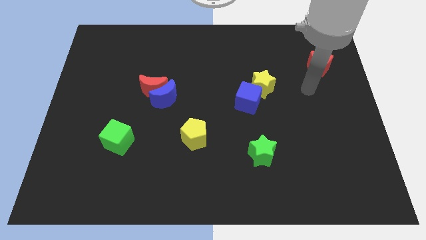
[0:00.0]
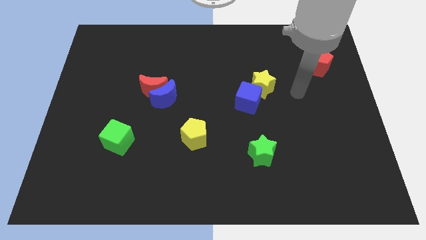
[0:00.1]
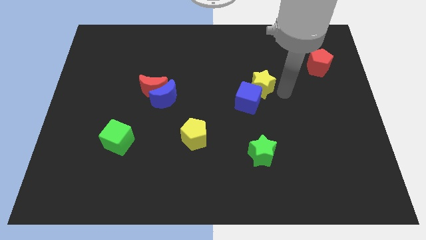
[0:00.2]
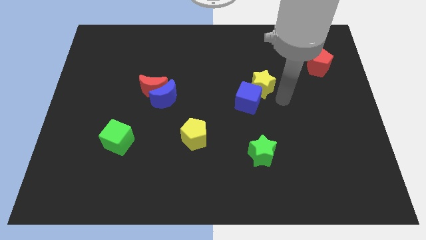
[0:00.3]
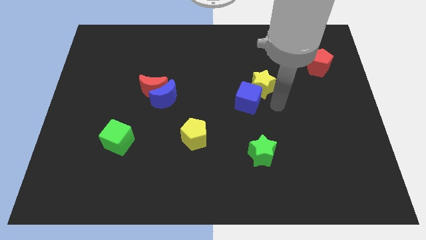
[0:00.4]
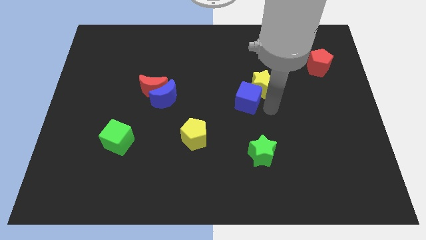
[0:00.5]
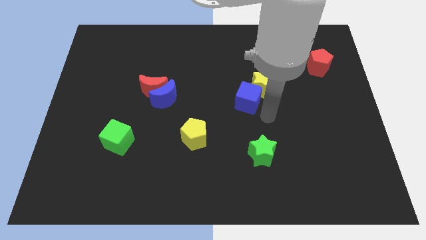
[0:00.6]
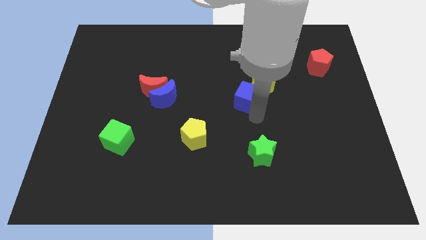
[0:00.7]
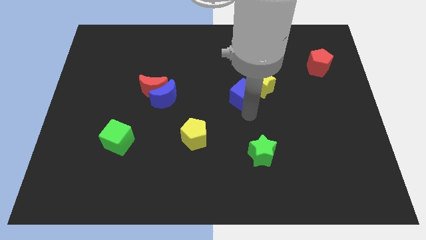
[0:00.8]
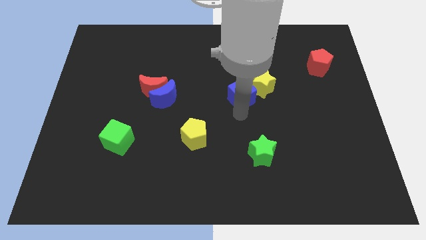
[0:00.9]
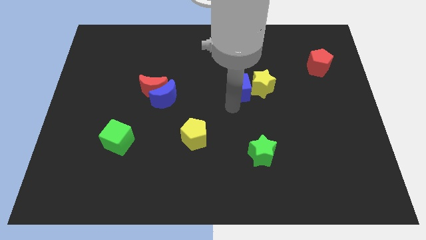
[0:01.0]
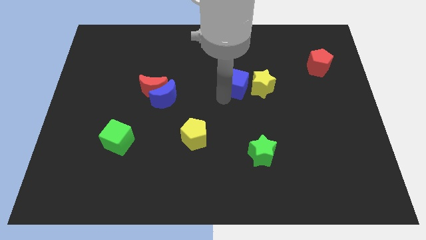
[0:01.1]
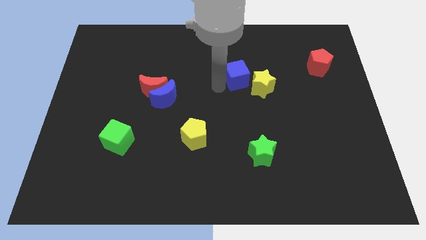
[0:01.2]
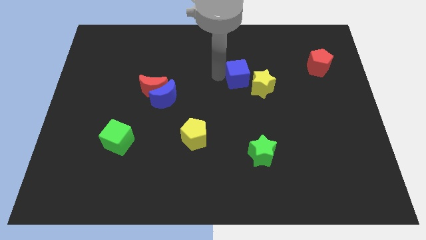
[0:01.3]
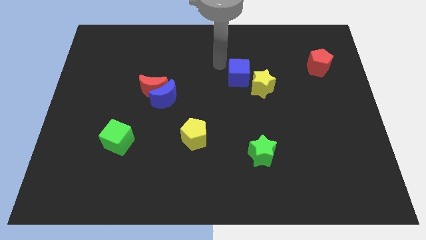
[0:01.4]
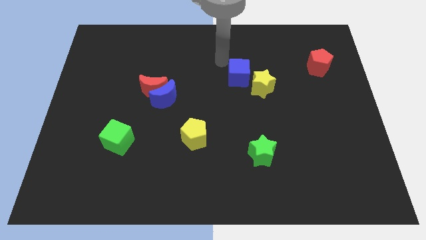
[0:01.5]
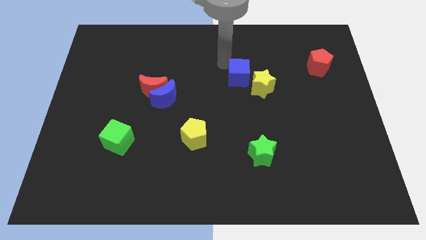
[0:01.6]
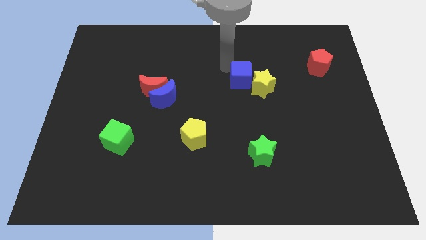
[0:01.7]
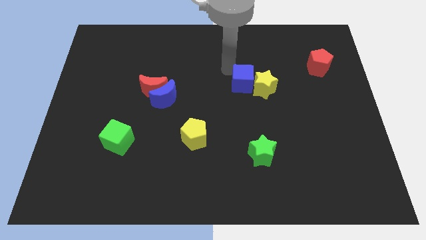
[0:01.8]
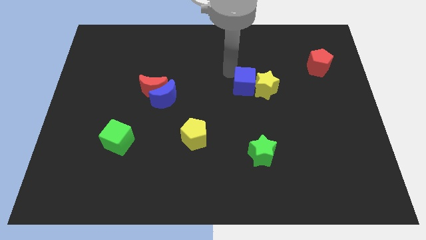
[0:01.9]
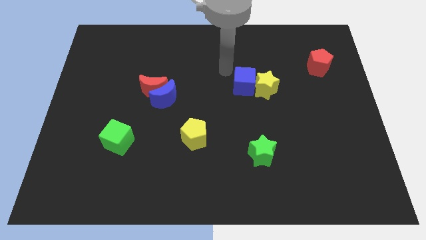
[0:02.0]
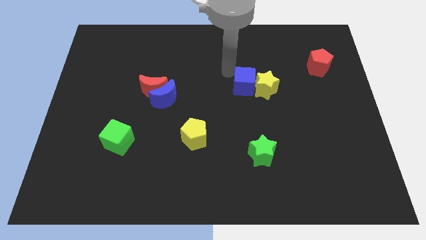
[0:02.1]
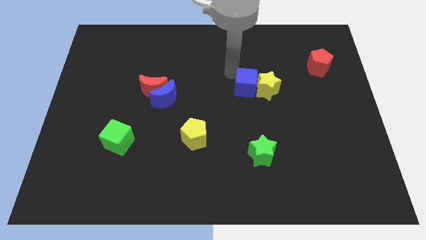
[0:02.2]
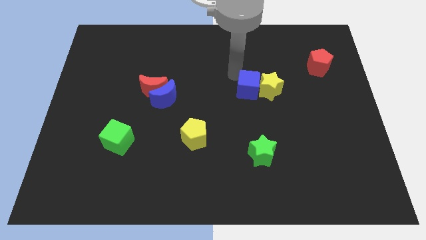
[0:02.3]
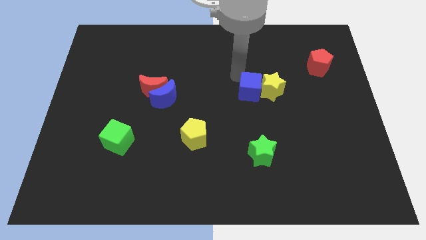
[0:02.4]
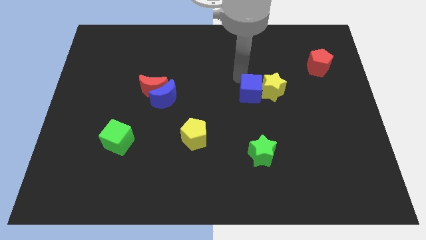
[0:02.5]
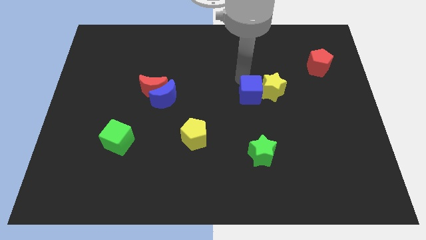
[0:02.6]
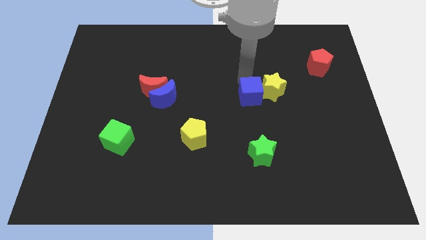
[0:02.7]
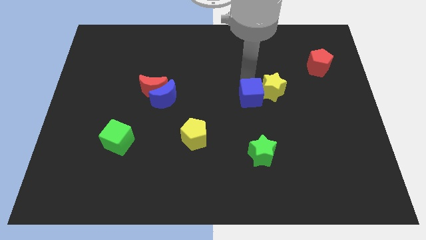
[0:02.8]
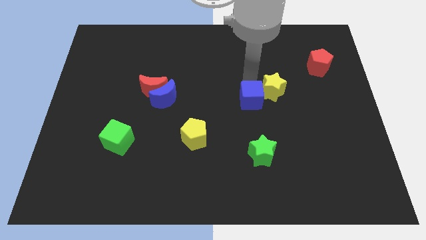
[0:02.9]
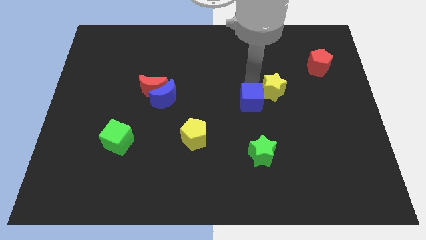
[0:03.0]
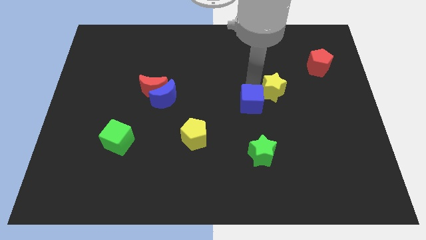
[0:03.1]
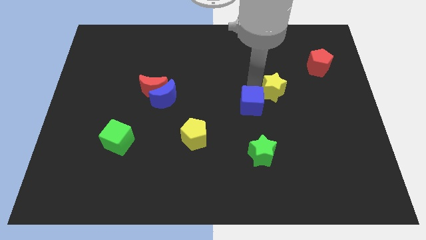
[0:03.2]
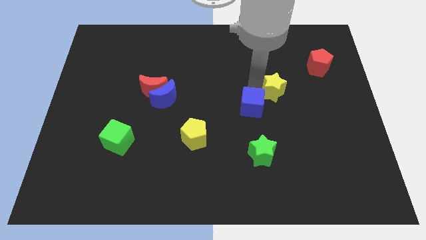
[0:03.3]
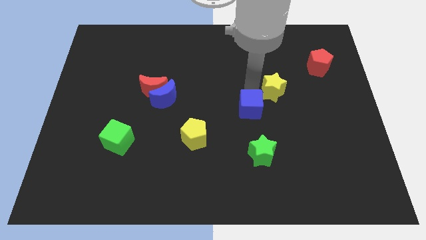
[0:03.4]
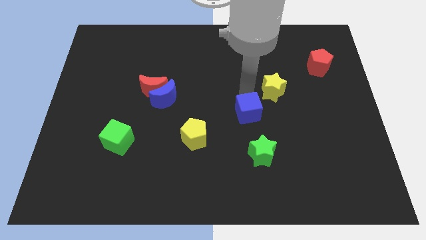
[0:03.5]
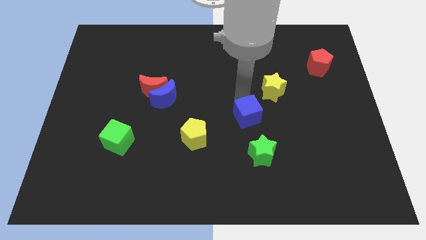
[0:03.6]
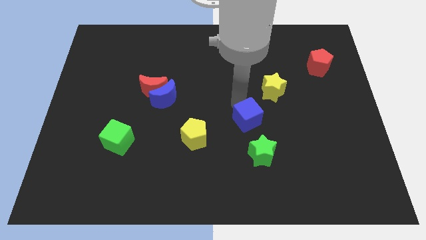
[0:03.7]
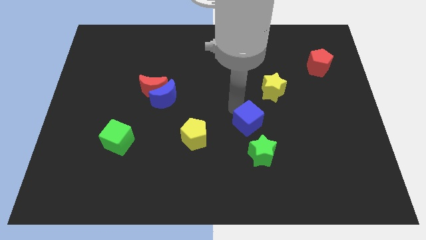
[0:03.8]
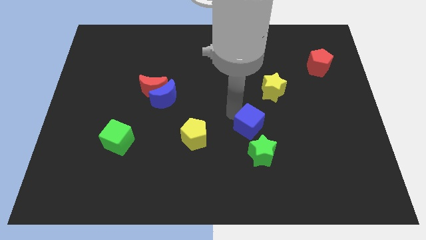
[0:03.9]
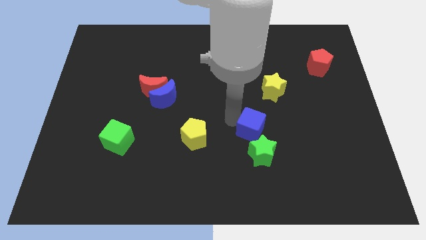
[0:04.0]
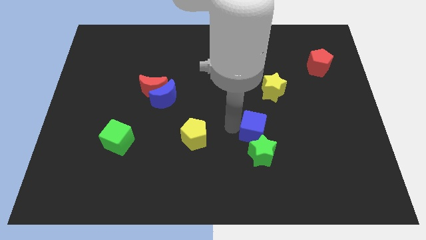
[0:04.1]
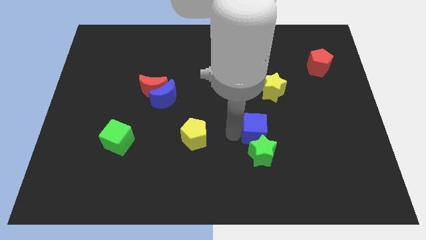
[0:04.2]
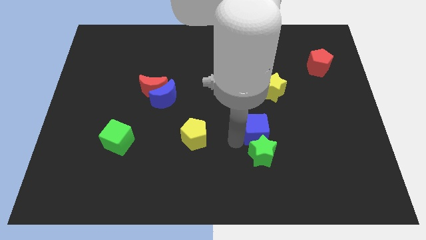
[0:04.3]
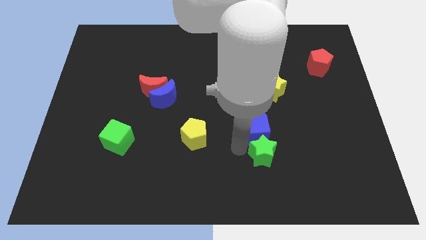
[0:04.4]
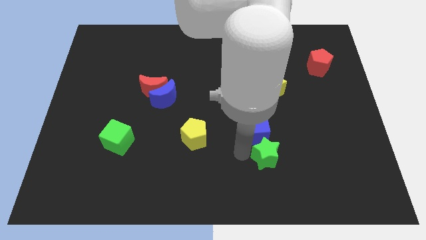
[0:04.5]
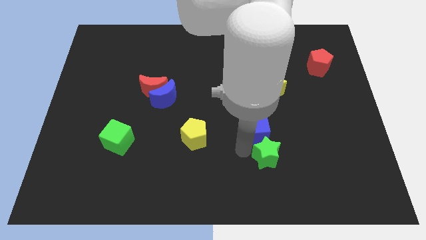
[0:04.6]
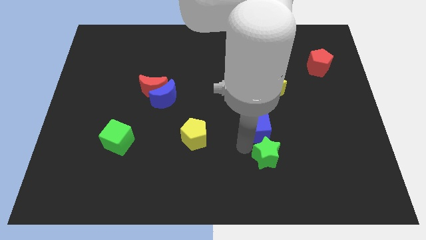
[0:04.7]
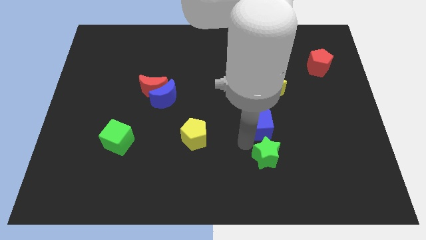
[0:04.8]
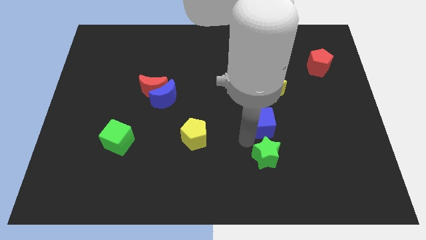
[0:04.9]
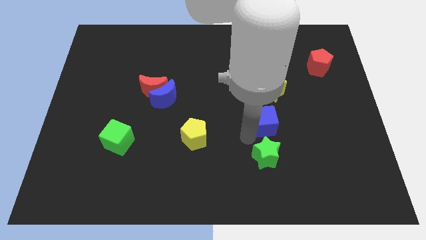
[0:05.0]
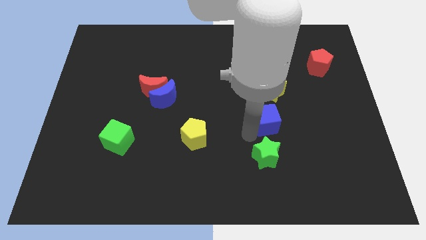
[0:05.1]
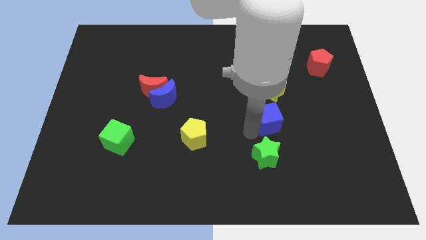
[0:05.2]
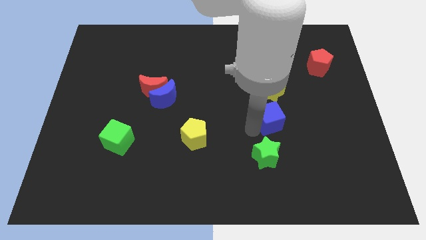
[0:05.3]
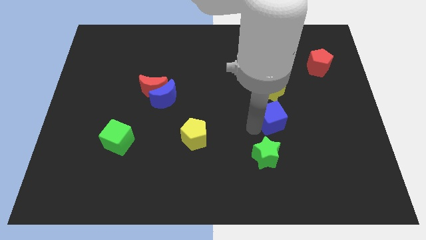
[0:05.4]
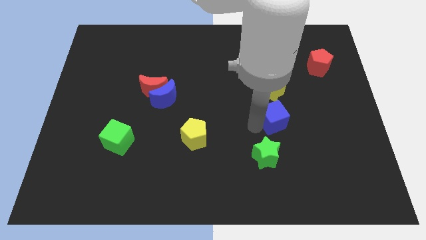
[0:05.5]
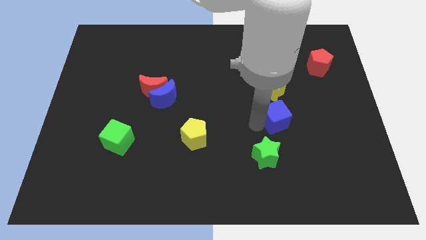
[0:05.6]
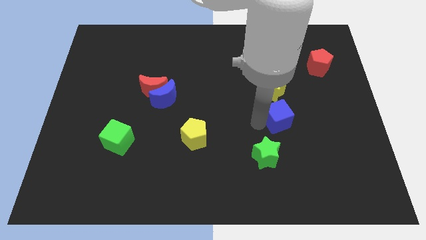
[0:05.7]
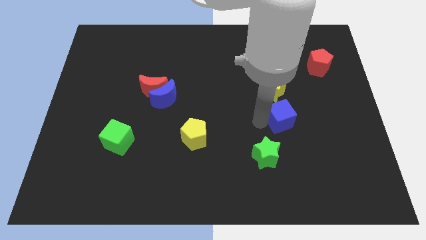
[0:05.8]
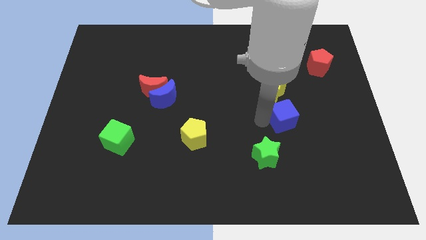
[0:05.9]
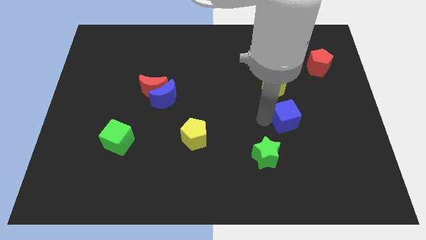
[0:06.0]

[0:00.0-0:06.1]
slightly push the blue cube right

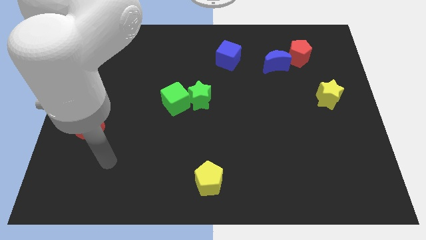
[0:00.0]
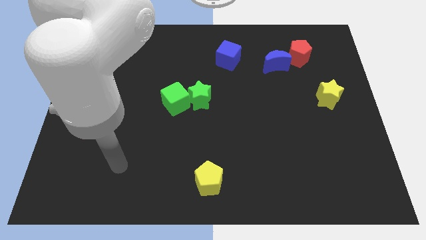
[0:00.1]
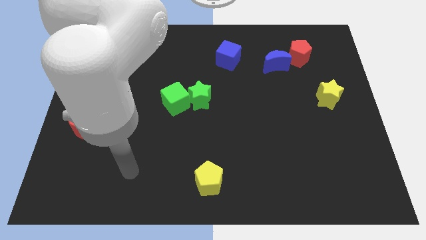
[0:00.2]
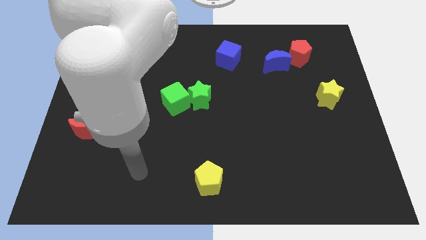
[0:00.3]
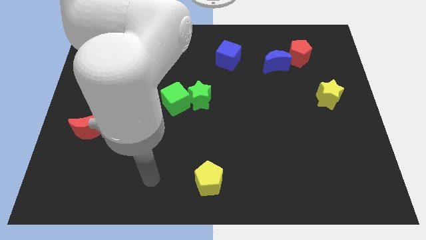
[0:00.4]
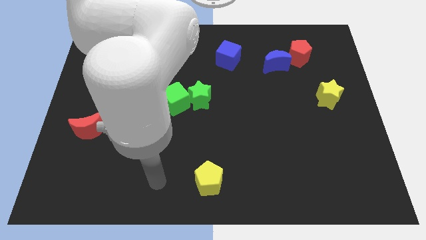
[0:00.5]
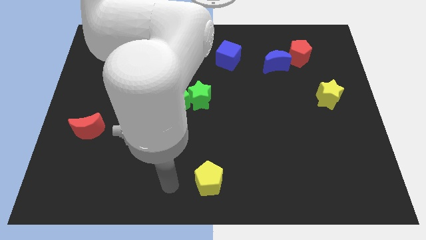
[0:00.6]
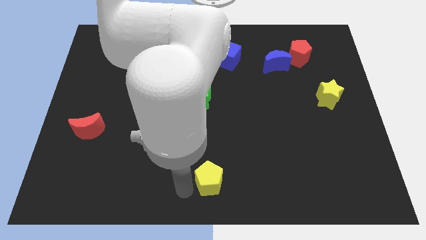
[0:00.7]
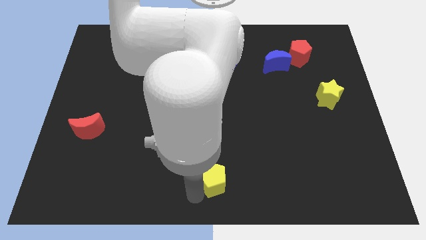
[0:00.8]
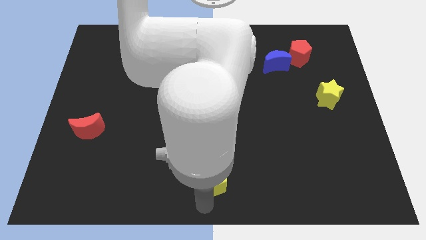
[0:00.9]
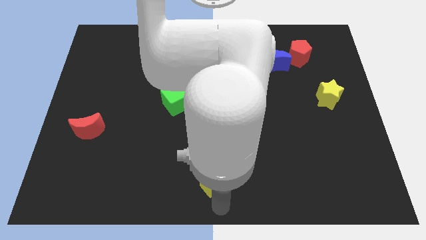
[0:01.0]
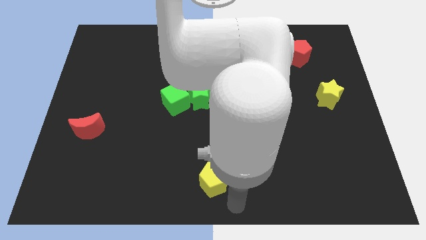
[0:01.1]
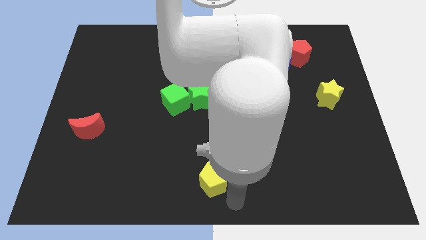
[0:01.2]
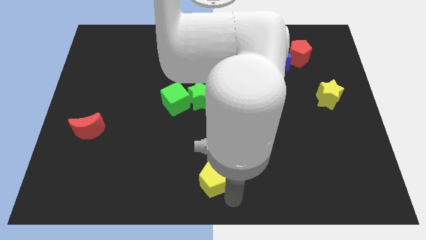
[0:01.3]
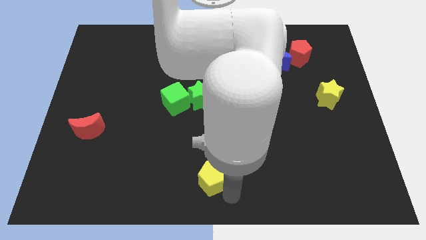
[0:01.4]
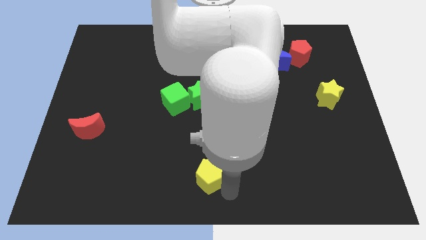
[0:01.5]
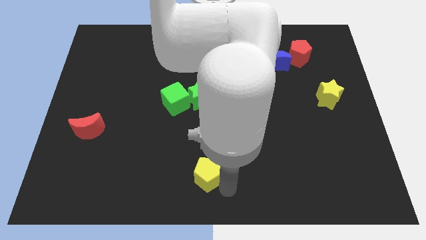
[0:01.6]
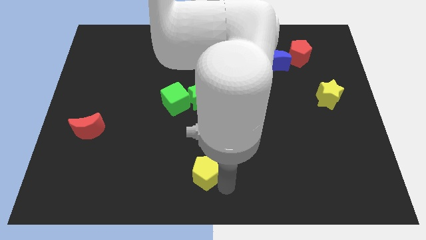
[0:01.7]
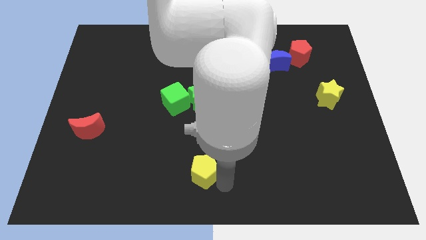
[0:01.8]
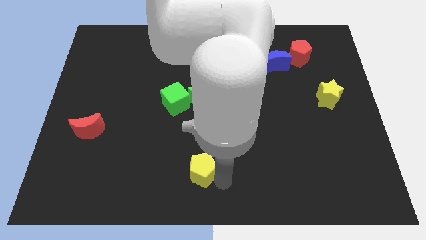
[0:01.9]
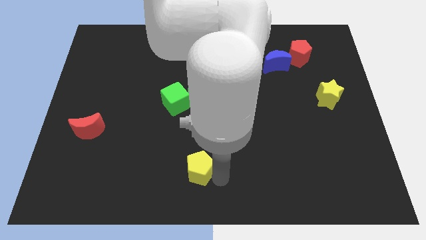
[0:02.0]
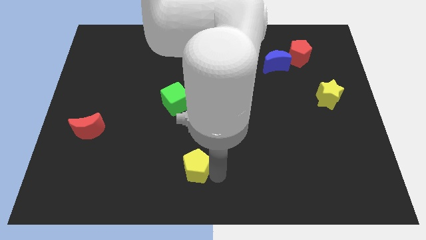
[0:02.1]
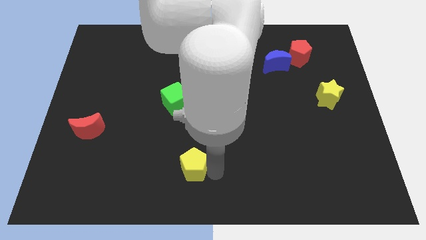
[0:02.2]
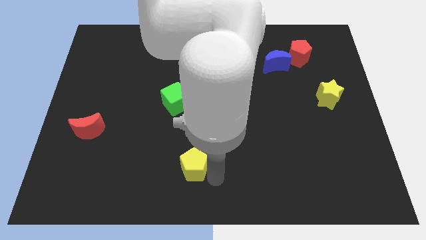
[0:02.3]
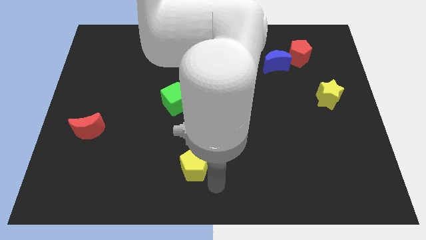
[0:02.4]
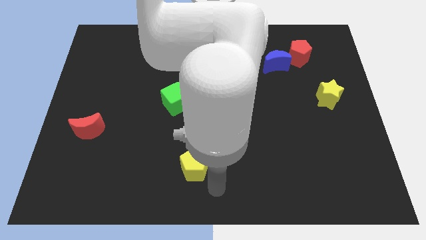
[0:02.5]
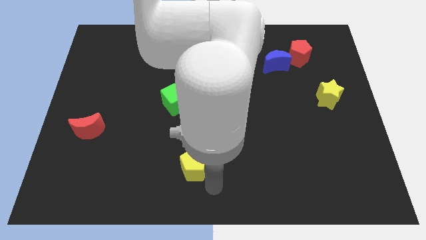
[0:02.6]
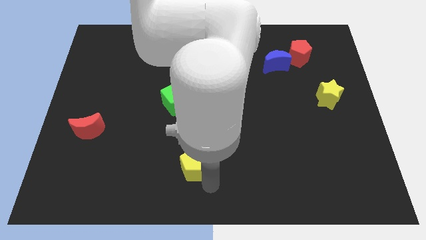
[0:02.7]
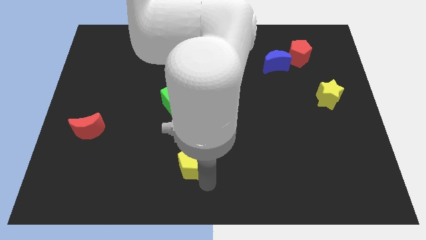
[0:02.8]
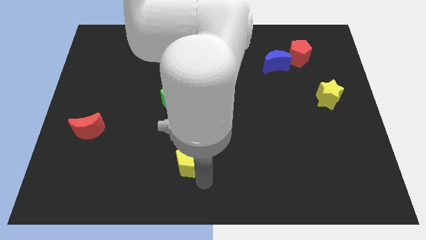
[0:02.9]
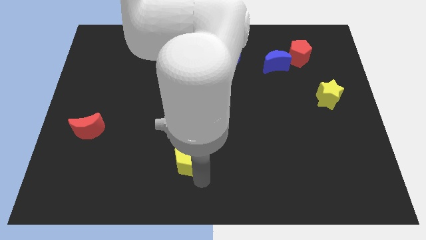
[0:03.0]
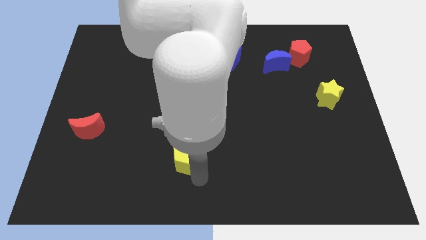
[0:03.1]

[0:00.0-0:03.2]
push the yellow pentagon a little bit upwards and then to the left
